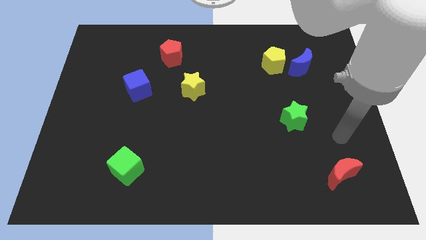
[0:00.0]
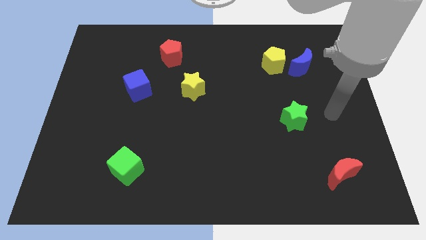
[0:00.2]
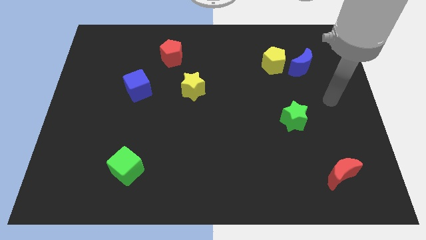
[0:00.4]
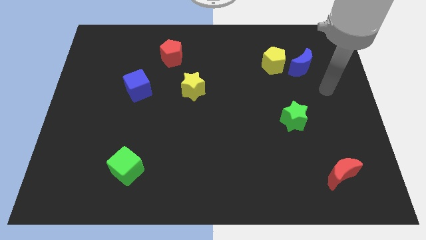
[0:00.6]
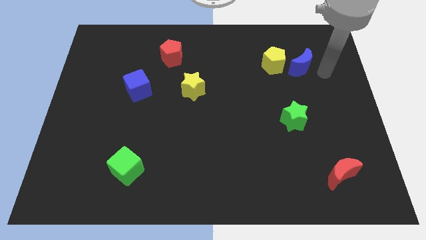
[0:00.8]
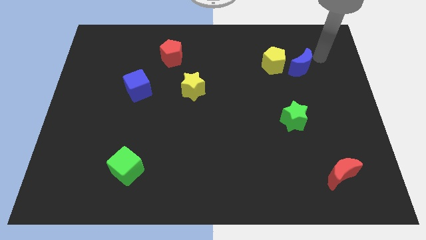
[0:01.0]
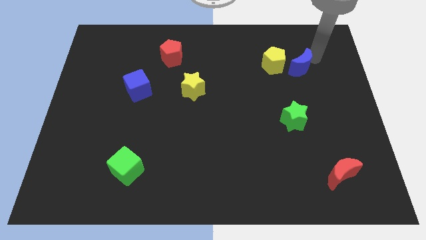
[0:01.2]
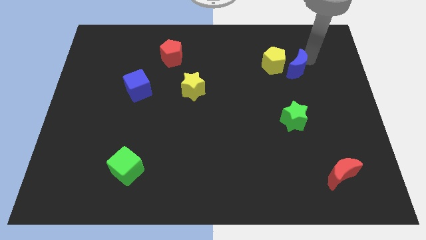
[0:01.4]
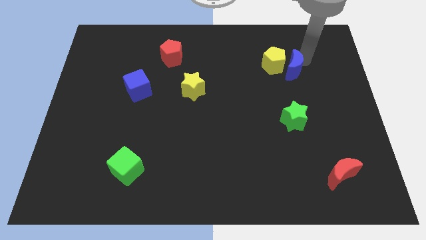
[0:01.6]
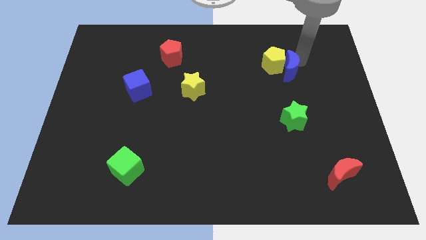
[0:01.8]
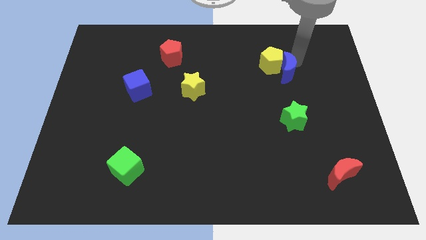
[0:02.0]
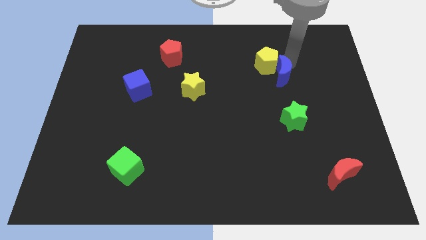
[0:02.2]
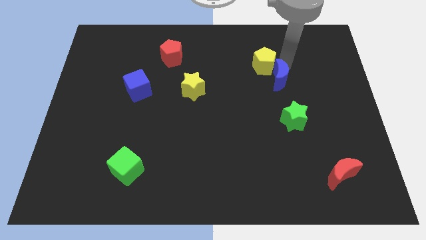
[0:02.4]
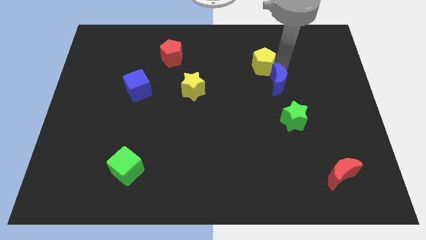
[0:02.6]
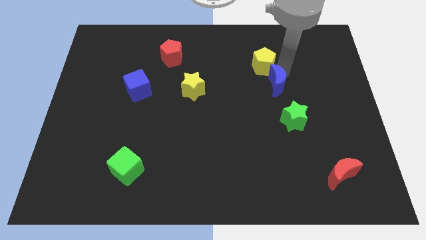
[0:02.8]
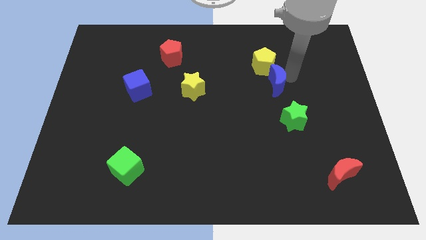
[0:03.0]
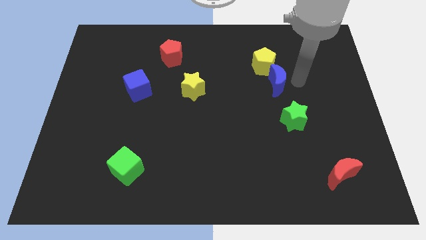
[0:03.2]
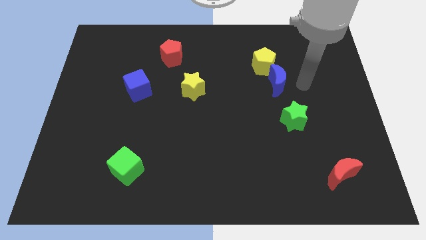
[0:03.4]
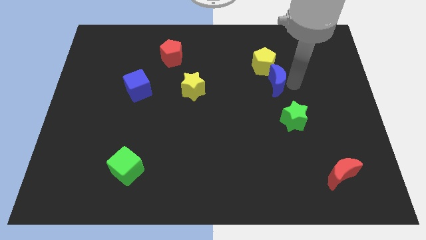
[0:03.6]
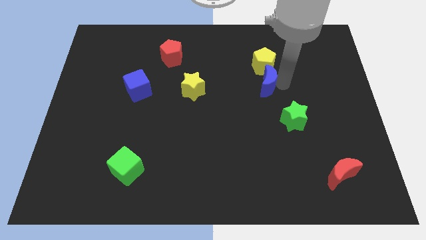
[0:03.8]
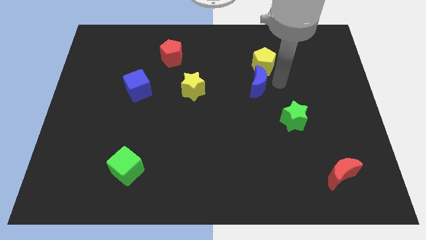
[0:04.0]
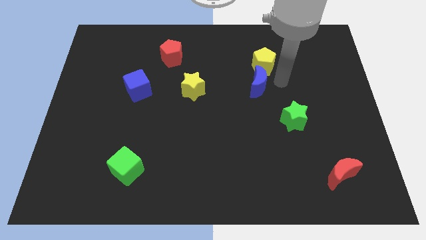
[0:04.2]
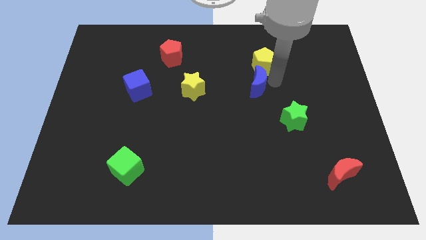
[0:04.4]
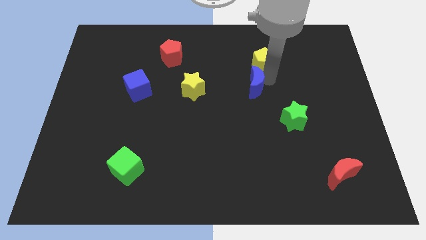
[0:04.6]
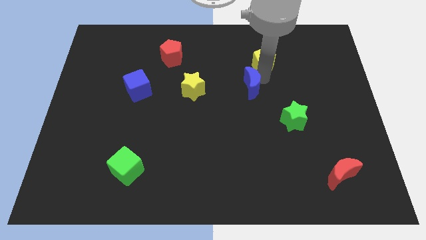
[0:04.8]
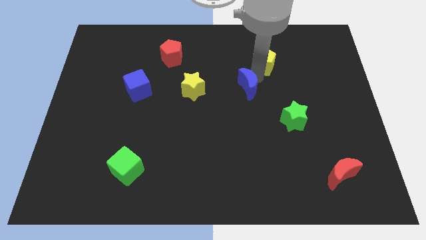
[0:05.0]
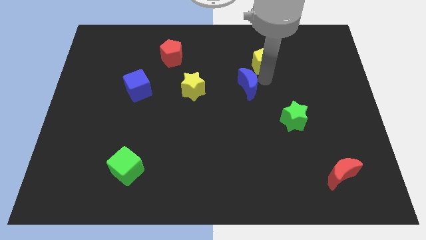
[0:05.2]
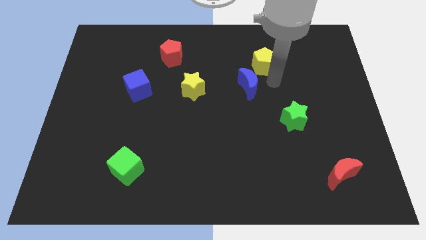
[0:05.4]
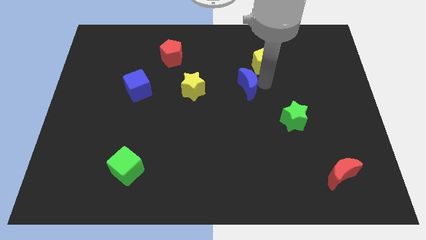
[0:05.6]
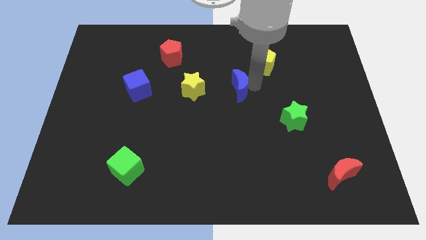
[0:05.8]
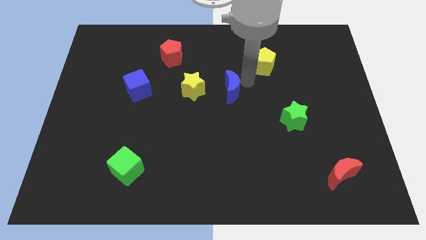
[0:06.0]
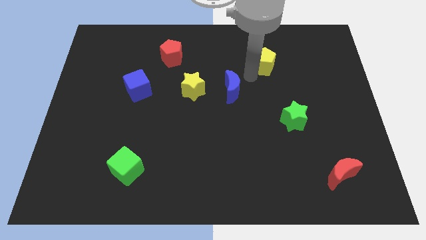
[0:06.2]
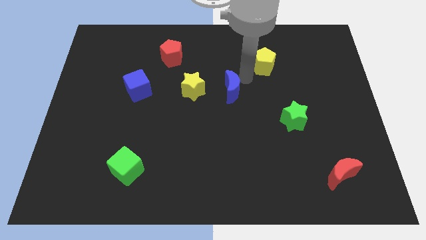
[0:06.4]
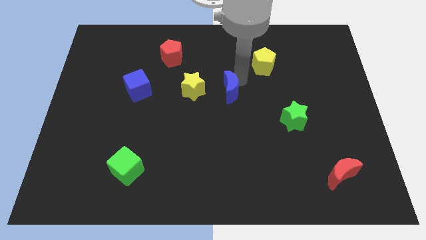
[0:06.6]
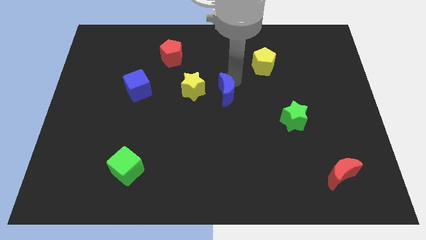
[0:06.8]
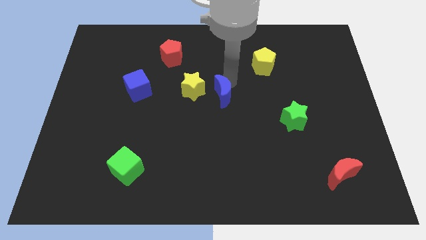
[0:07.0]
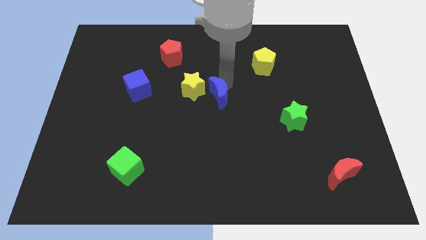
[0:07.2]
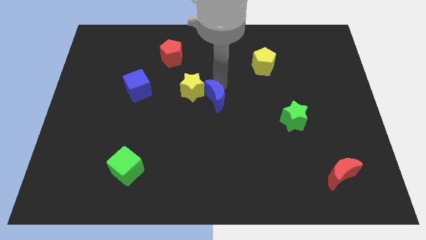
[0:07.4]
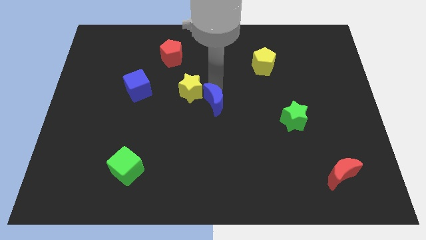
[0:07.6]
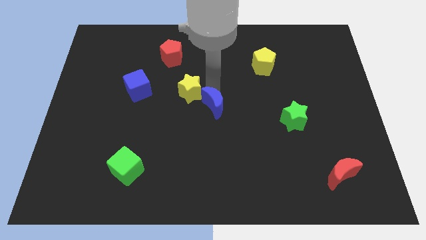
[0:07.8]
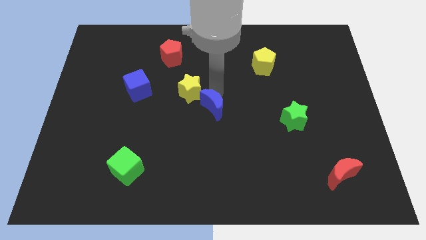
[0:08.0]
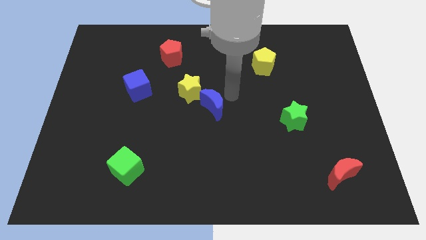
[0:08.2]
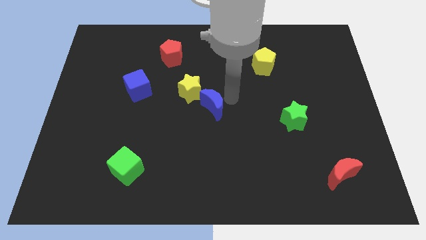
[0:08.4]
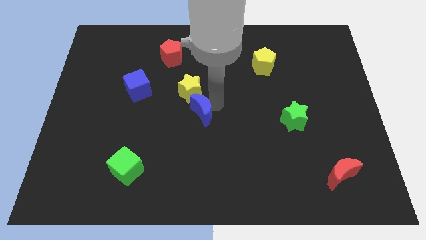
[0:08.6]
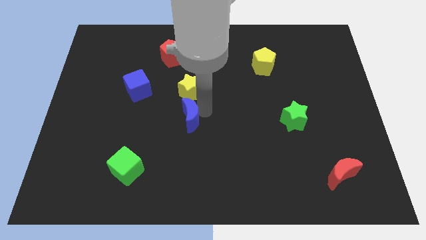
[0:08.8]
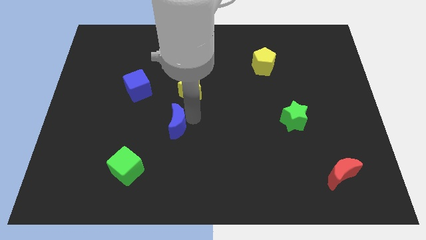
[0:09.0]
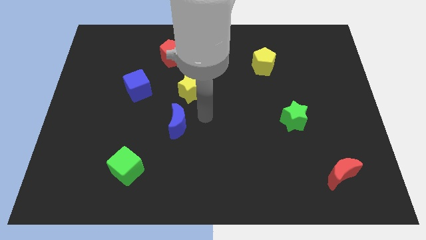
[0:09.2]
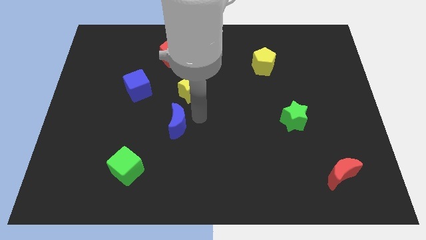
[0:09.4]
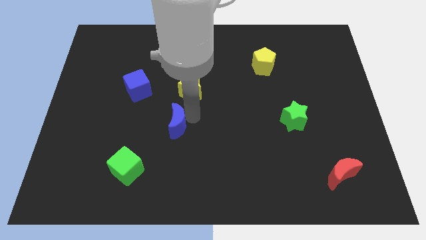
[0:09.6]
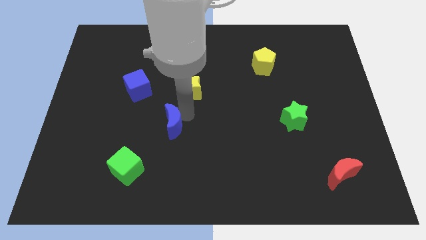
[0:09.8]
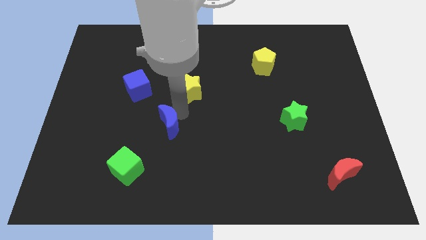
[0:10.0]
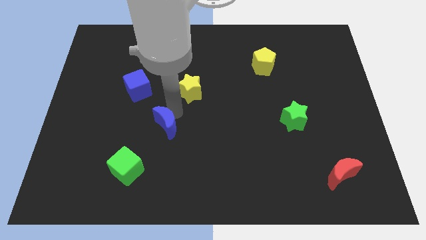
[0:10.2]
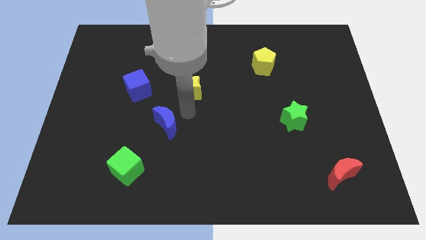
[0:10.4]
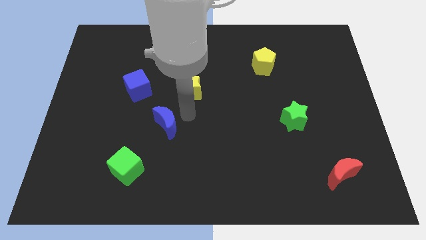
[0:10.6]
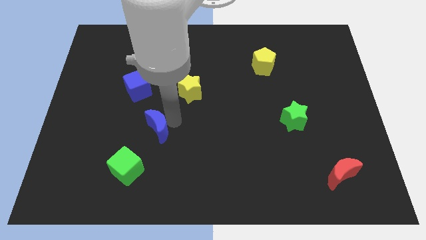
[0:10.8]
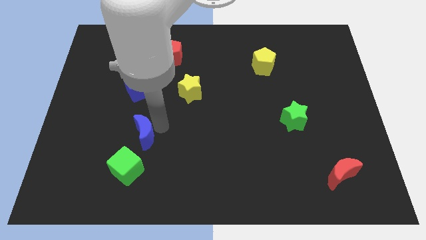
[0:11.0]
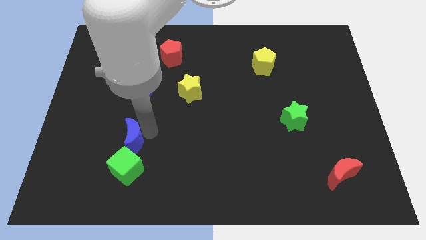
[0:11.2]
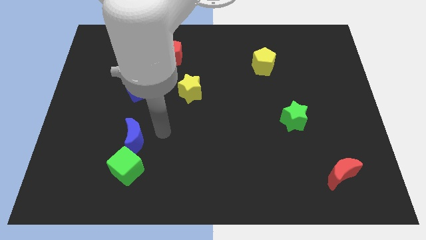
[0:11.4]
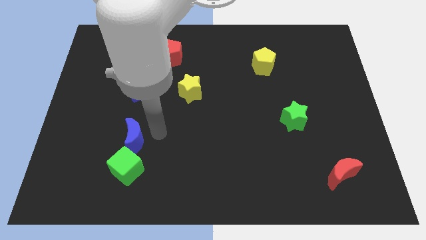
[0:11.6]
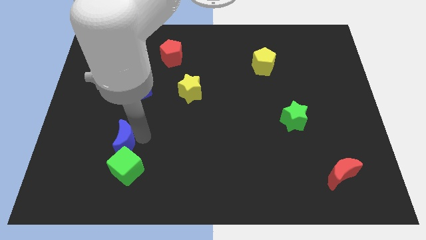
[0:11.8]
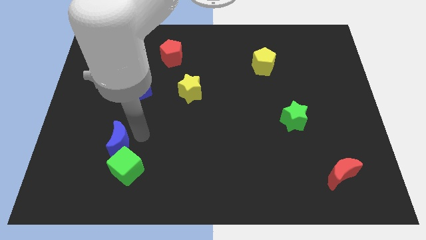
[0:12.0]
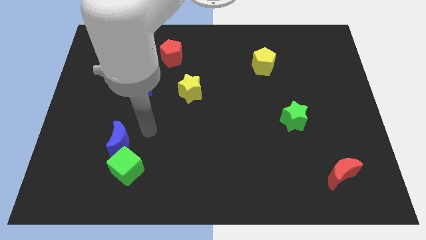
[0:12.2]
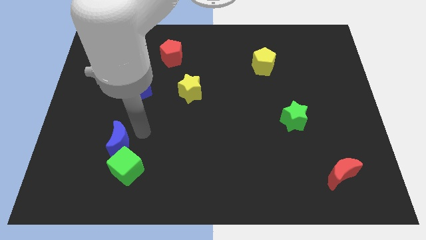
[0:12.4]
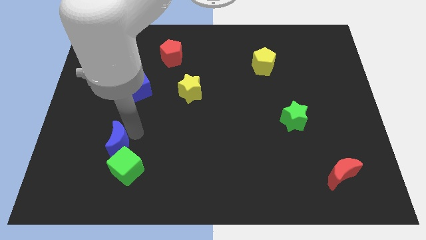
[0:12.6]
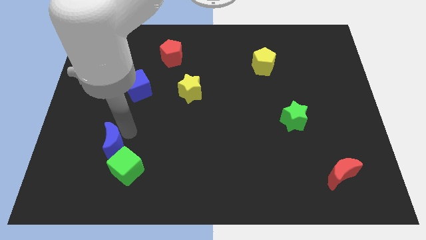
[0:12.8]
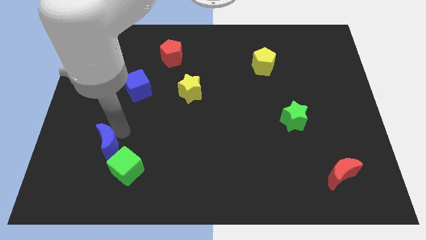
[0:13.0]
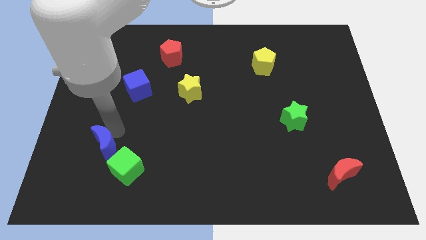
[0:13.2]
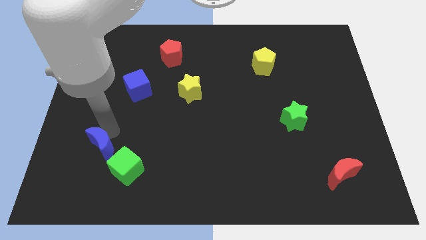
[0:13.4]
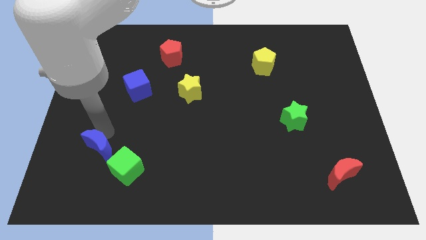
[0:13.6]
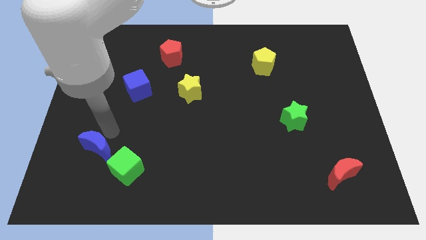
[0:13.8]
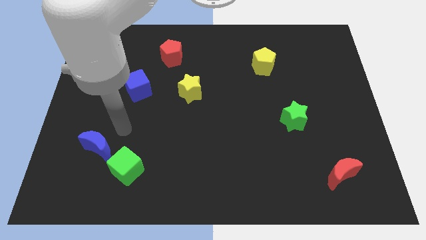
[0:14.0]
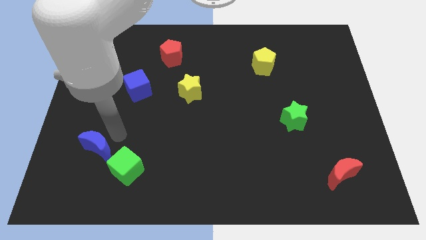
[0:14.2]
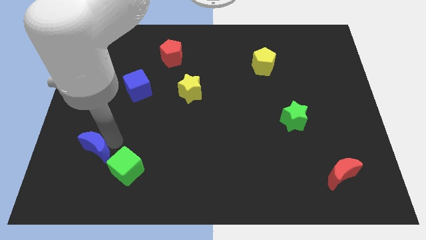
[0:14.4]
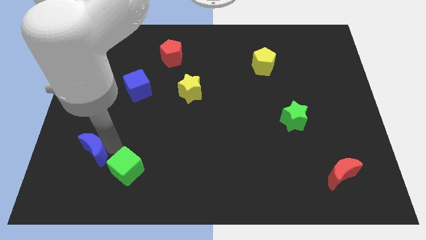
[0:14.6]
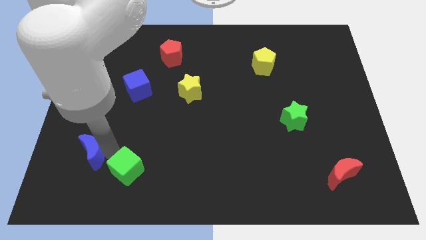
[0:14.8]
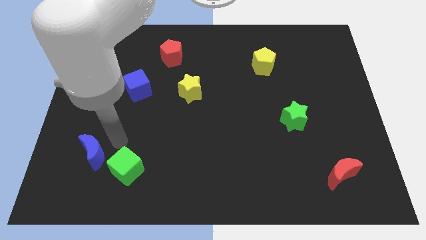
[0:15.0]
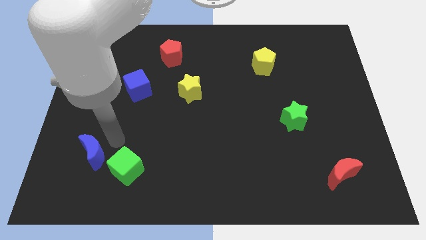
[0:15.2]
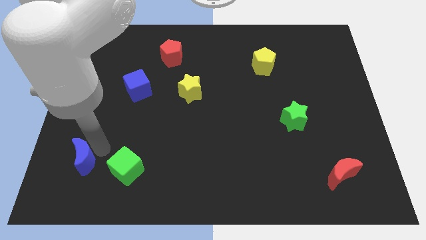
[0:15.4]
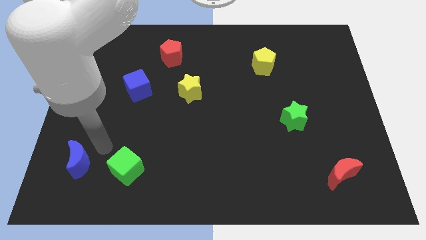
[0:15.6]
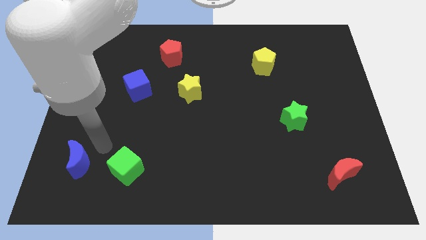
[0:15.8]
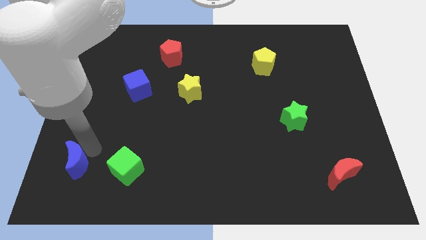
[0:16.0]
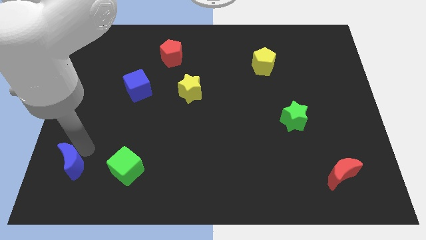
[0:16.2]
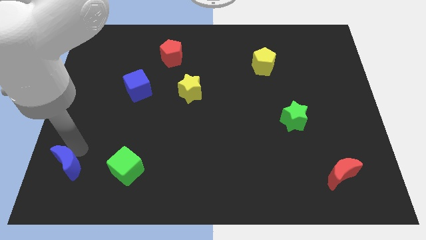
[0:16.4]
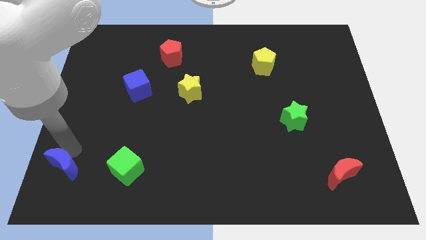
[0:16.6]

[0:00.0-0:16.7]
put the blue moon to the lower left corner
